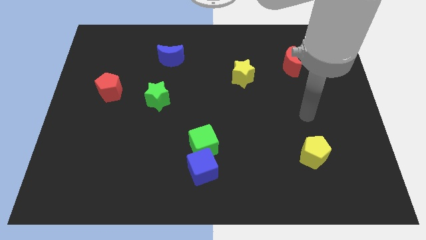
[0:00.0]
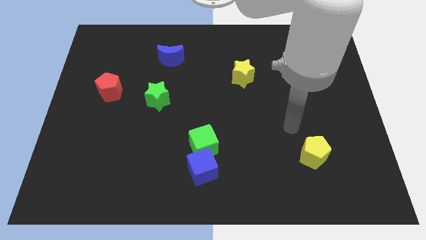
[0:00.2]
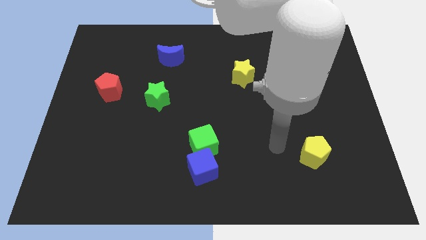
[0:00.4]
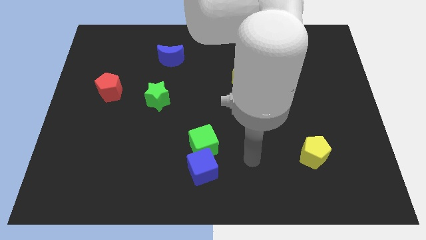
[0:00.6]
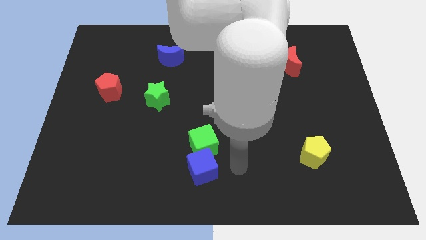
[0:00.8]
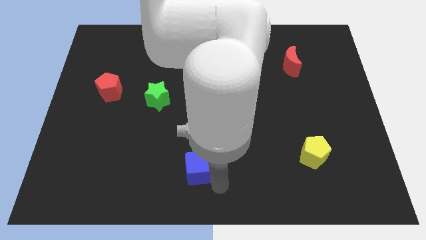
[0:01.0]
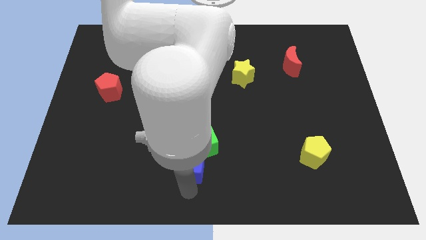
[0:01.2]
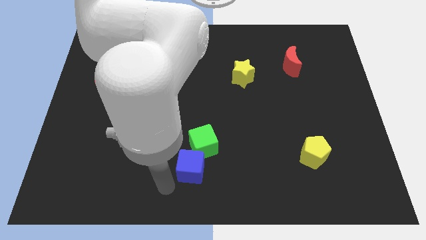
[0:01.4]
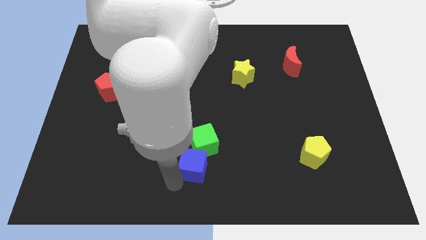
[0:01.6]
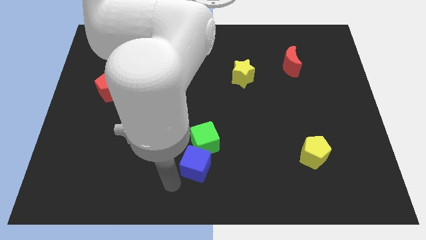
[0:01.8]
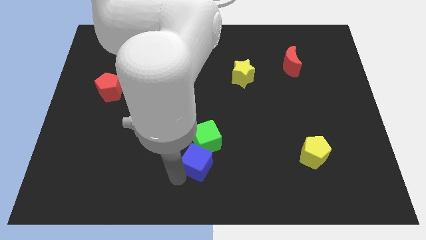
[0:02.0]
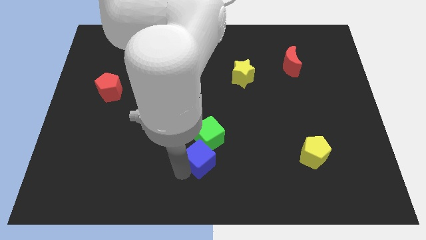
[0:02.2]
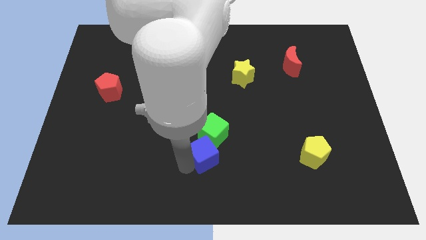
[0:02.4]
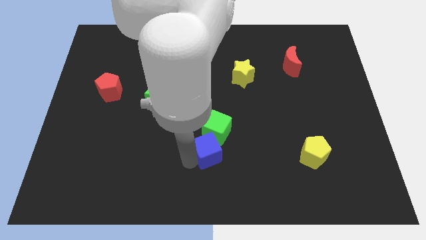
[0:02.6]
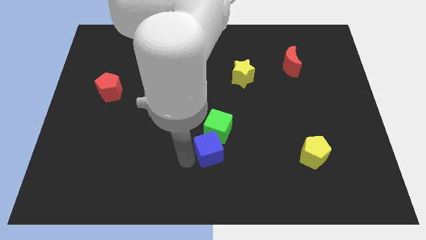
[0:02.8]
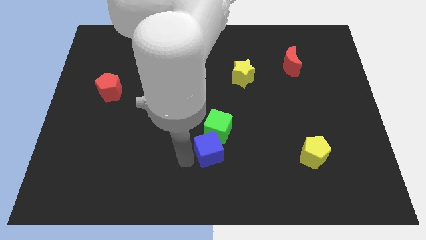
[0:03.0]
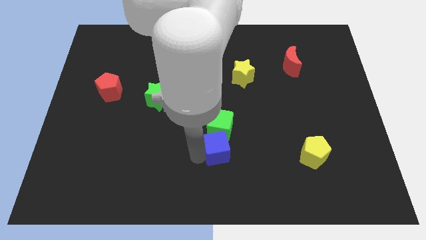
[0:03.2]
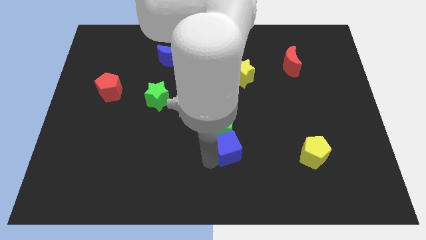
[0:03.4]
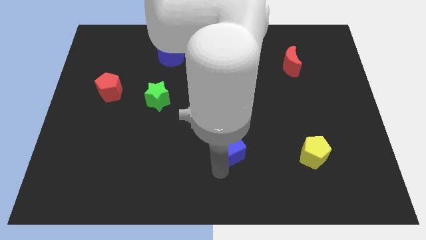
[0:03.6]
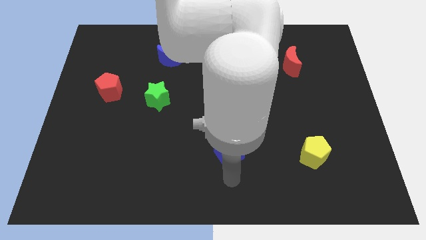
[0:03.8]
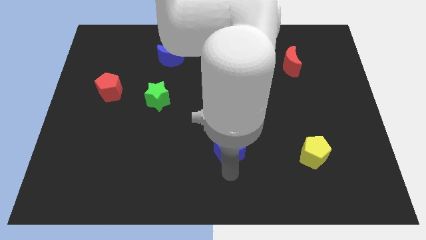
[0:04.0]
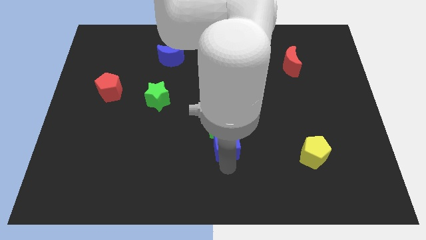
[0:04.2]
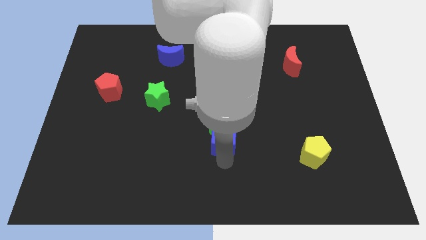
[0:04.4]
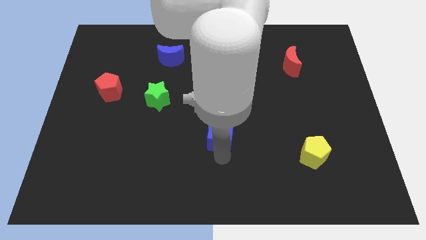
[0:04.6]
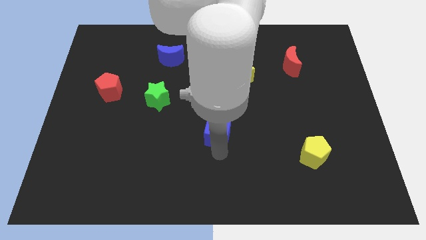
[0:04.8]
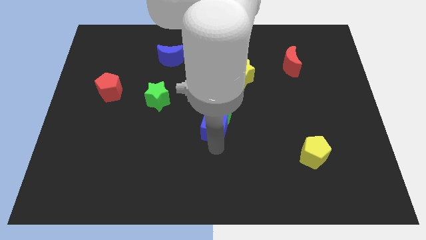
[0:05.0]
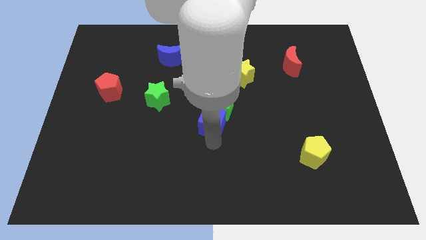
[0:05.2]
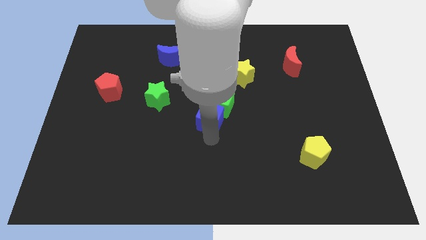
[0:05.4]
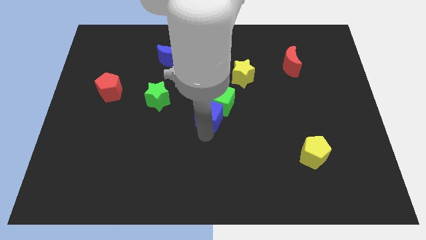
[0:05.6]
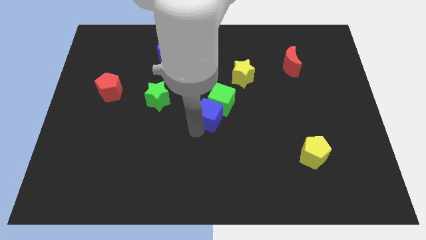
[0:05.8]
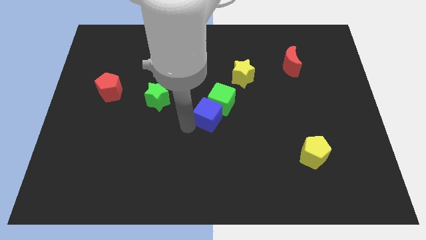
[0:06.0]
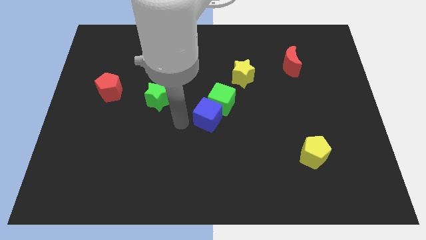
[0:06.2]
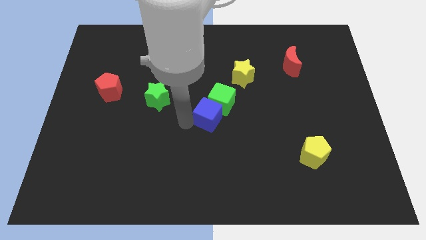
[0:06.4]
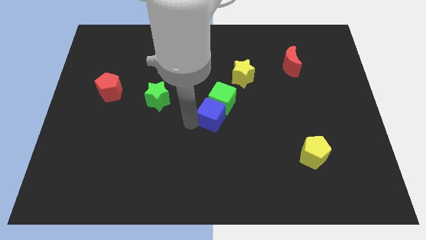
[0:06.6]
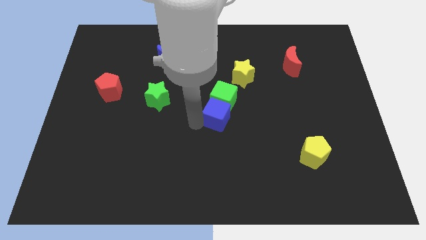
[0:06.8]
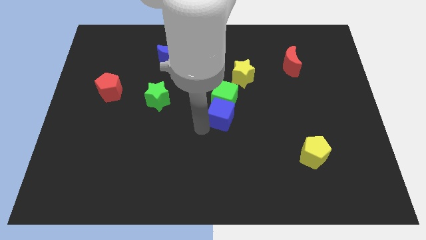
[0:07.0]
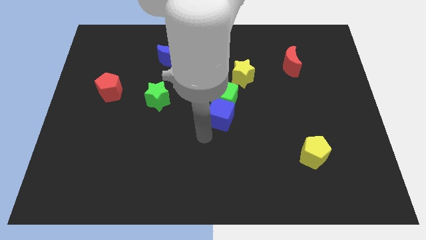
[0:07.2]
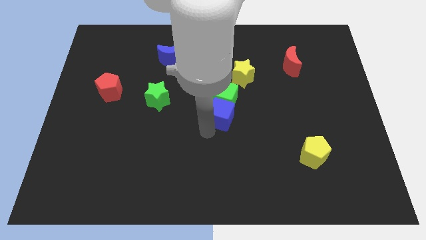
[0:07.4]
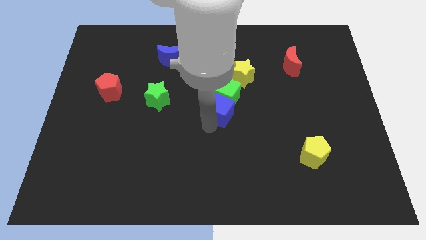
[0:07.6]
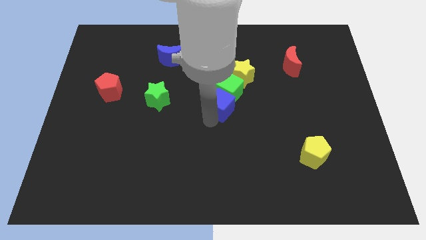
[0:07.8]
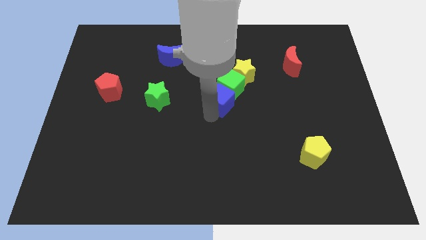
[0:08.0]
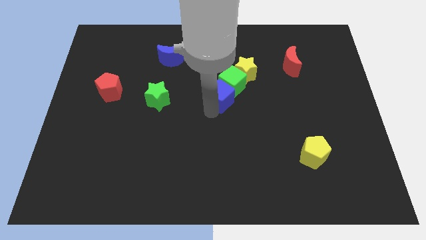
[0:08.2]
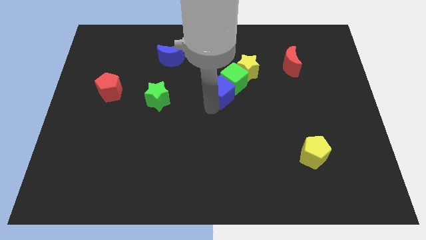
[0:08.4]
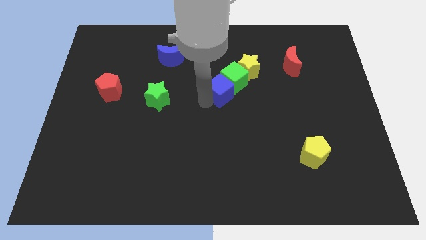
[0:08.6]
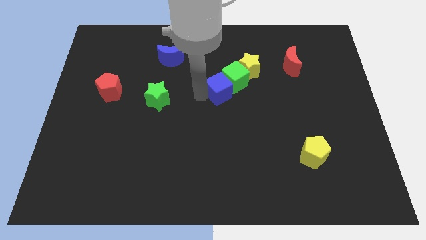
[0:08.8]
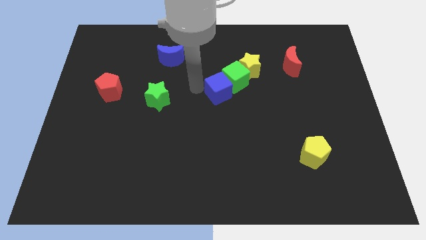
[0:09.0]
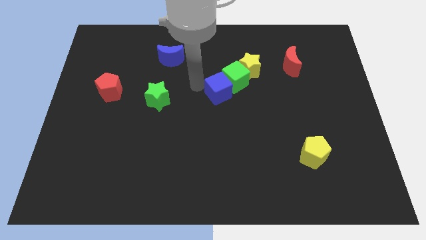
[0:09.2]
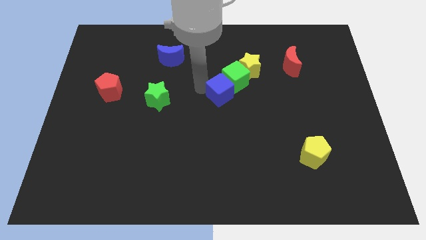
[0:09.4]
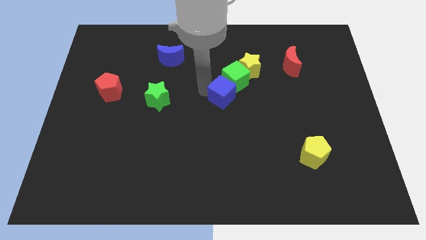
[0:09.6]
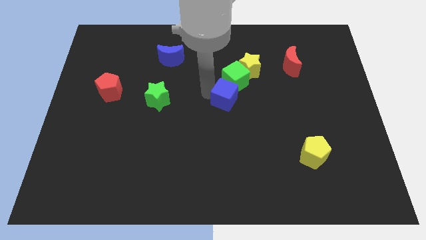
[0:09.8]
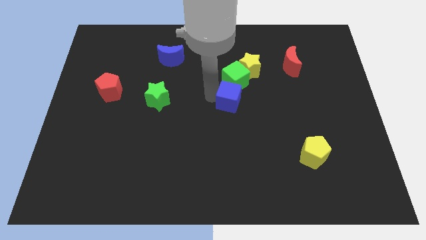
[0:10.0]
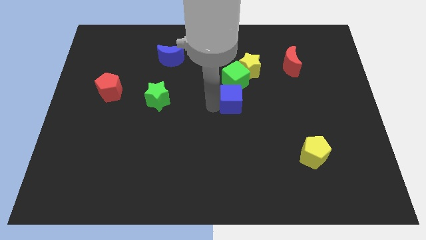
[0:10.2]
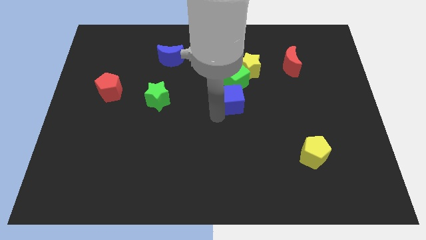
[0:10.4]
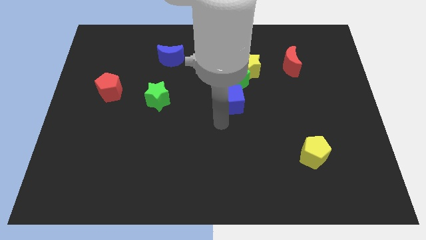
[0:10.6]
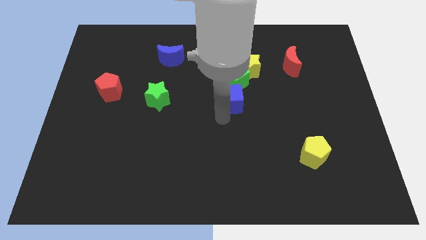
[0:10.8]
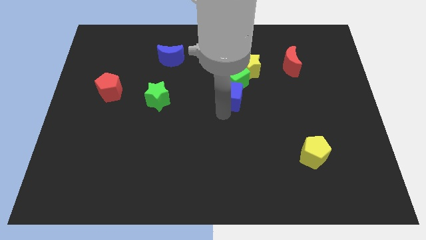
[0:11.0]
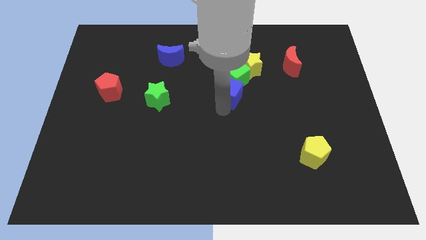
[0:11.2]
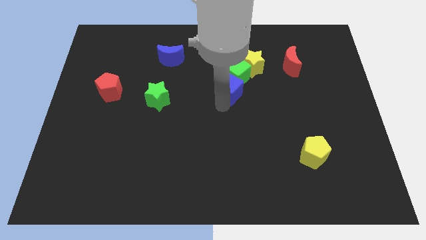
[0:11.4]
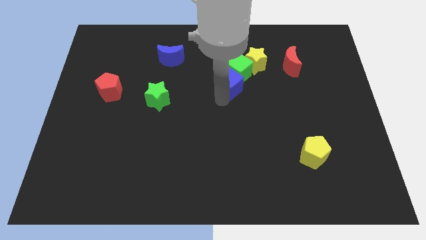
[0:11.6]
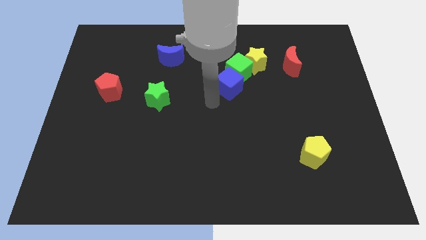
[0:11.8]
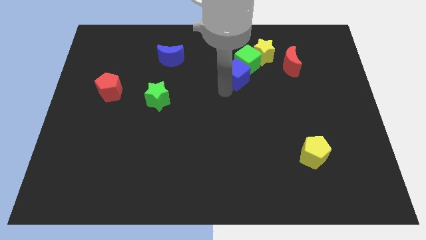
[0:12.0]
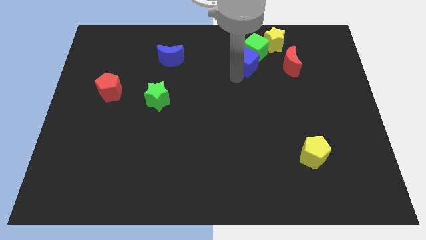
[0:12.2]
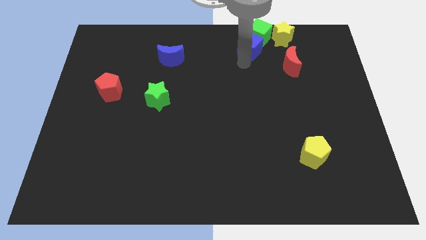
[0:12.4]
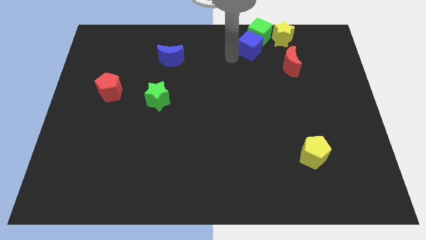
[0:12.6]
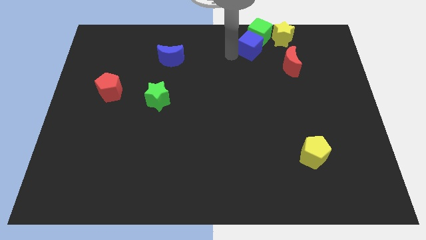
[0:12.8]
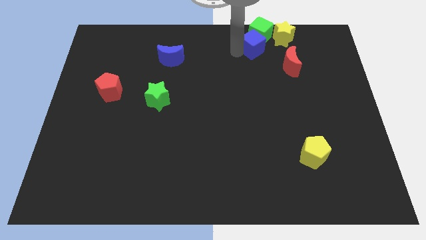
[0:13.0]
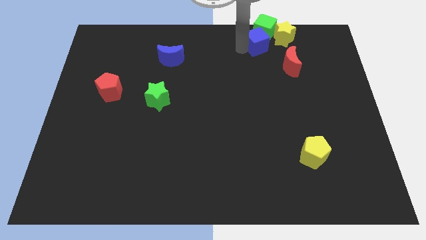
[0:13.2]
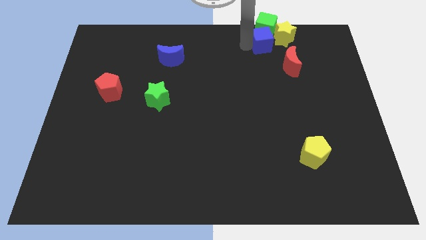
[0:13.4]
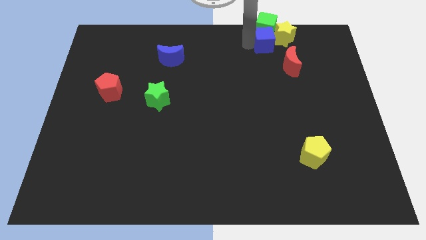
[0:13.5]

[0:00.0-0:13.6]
move the blue cube towards the yellow star

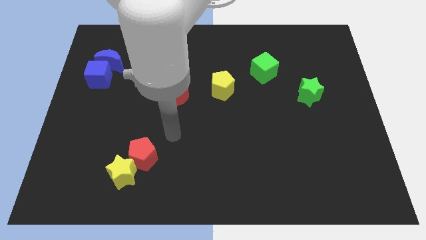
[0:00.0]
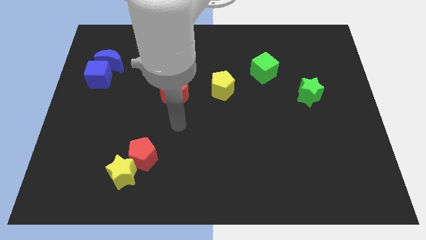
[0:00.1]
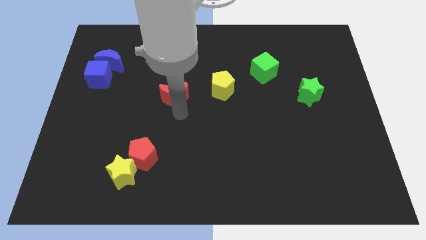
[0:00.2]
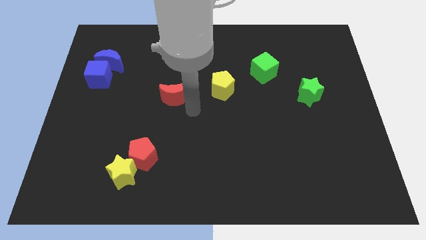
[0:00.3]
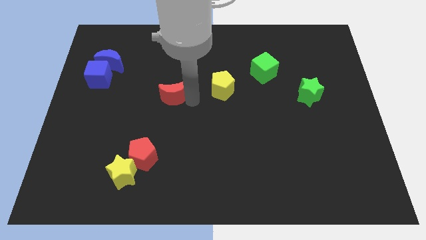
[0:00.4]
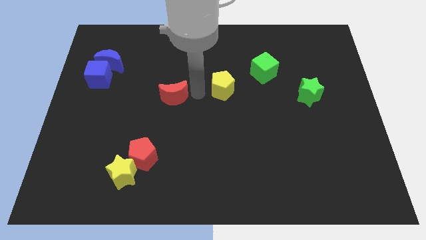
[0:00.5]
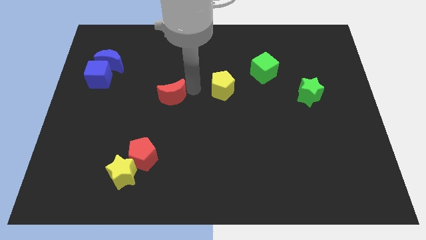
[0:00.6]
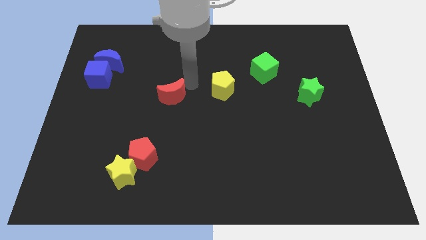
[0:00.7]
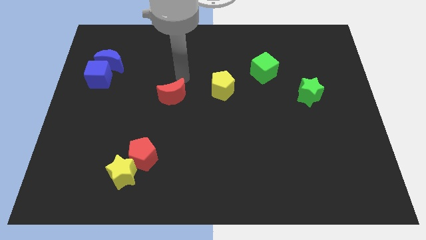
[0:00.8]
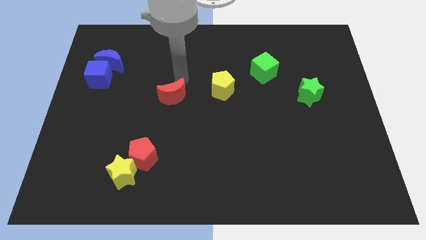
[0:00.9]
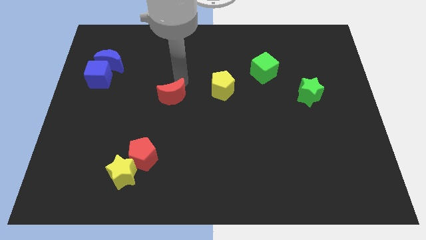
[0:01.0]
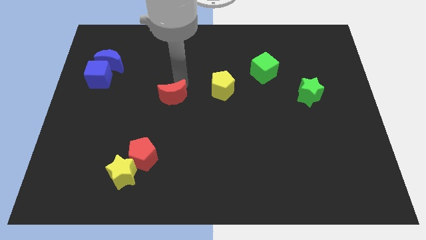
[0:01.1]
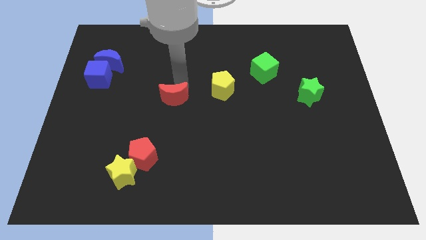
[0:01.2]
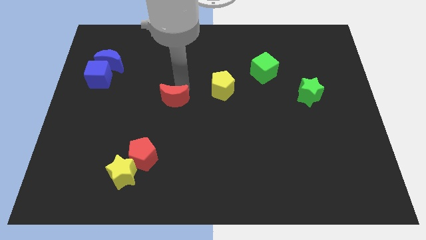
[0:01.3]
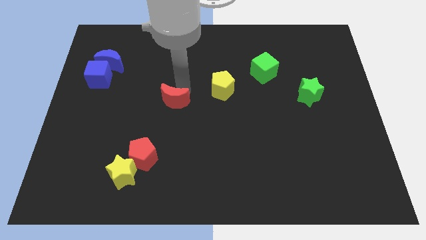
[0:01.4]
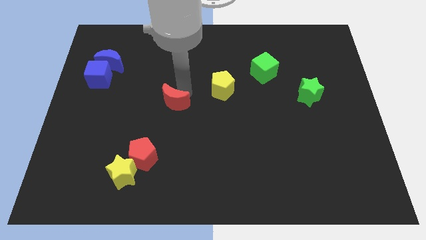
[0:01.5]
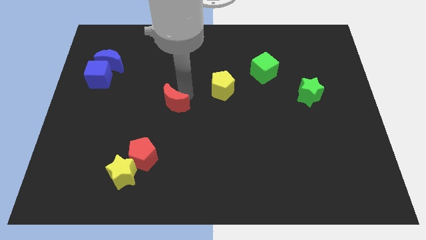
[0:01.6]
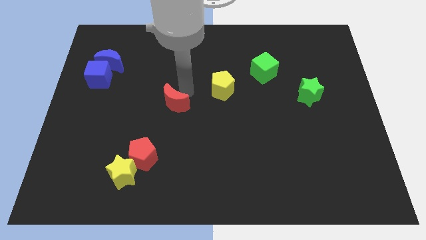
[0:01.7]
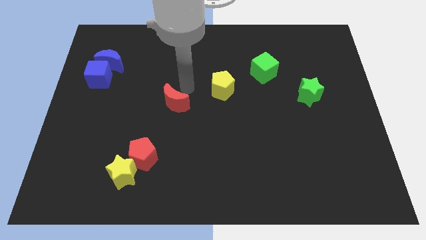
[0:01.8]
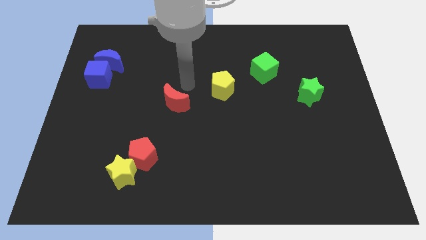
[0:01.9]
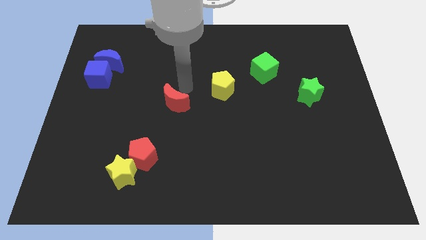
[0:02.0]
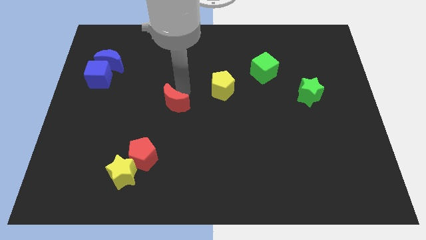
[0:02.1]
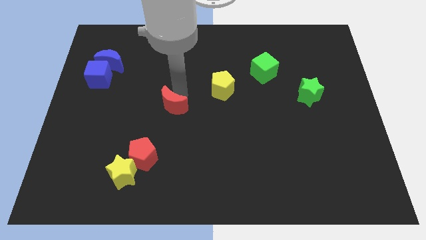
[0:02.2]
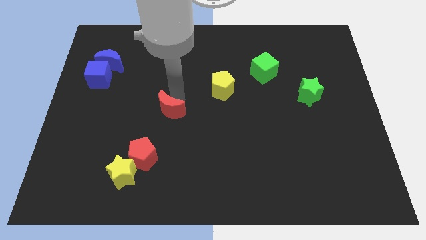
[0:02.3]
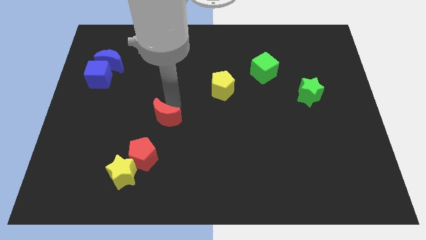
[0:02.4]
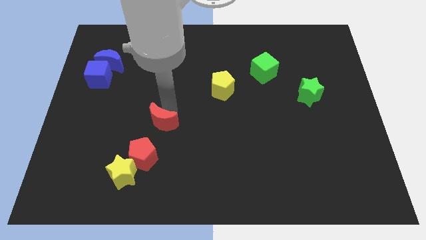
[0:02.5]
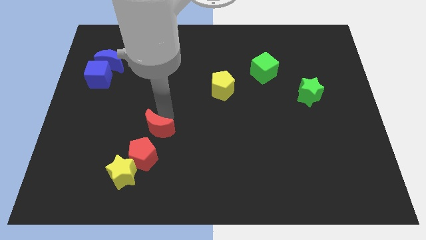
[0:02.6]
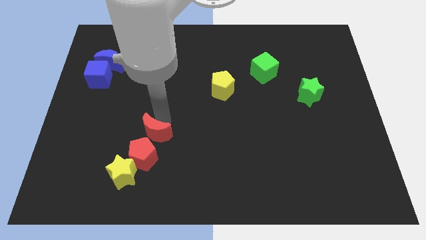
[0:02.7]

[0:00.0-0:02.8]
slide the red moon towards the red pentagon
